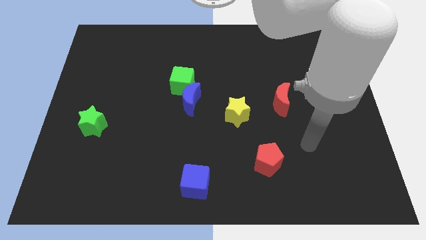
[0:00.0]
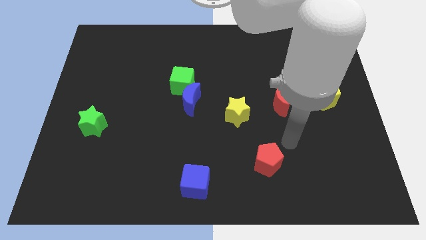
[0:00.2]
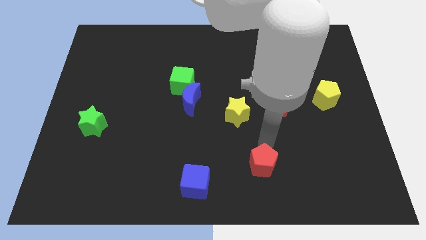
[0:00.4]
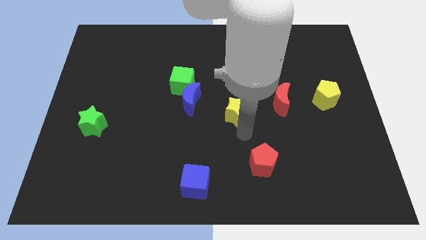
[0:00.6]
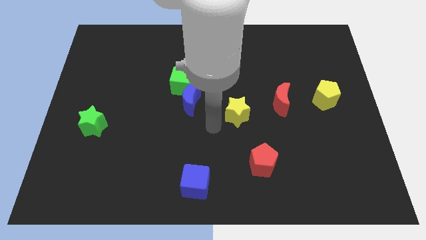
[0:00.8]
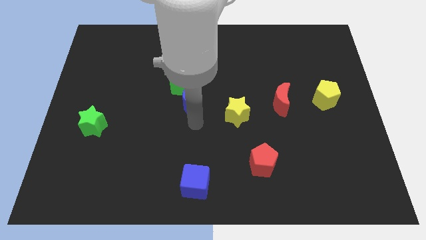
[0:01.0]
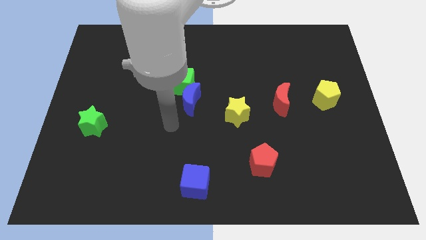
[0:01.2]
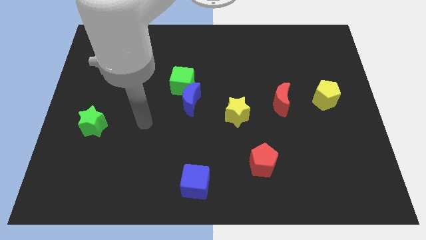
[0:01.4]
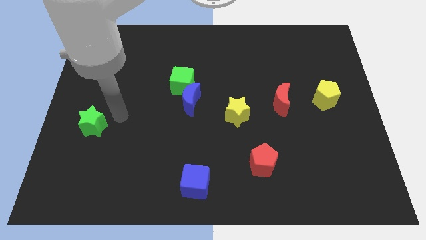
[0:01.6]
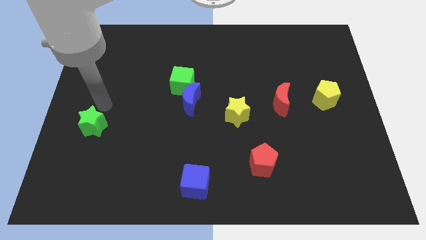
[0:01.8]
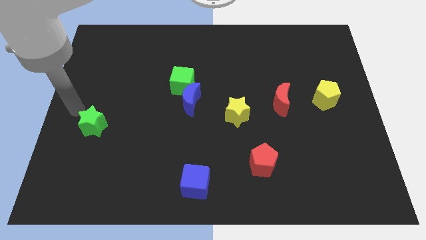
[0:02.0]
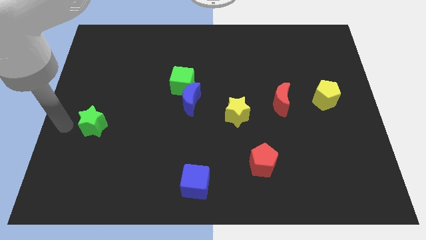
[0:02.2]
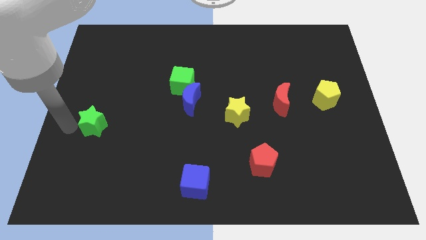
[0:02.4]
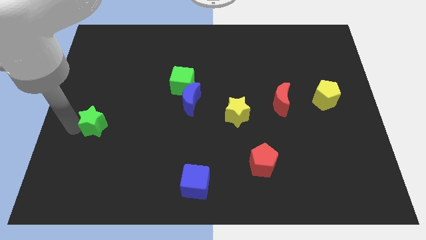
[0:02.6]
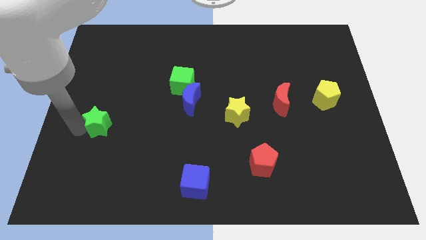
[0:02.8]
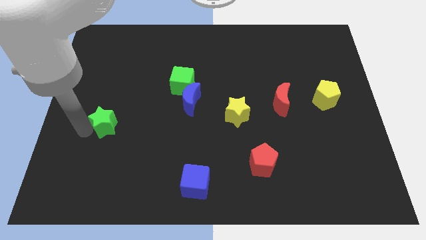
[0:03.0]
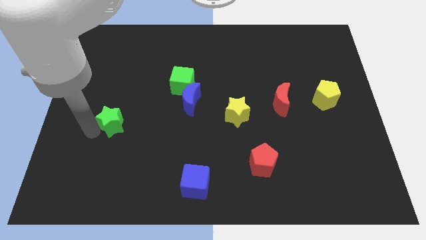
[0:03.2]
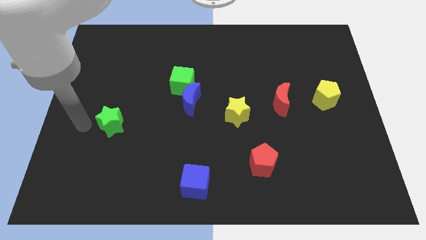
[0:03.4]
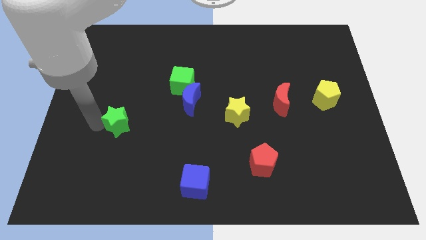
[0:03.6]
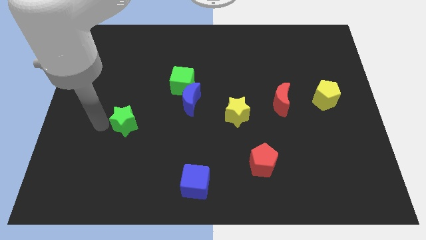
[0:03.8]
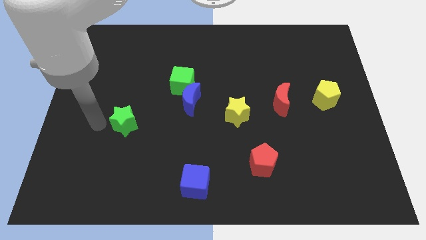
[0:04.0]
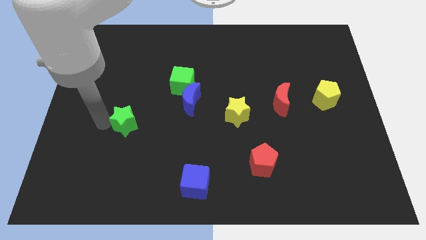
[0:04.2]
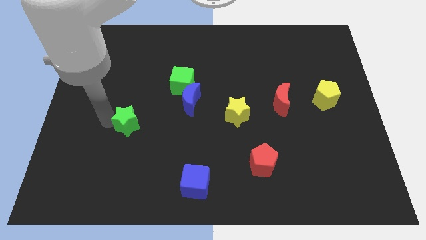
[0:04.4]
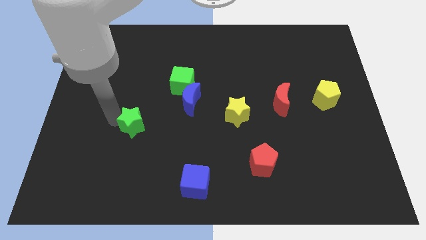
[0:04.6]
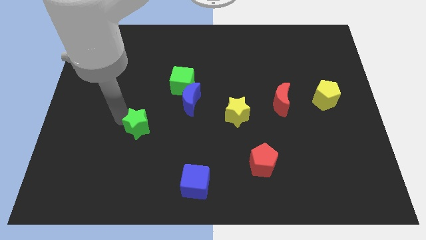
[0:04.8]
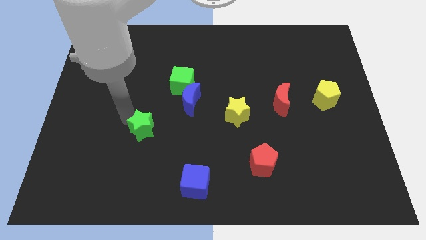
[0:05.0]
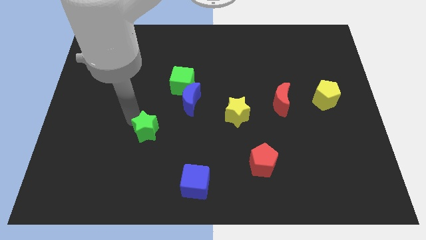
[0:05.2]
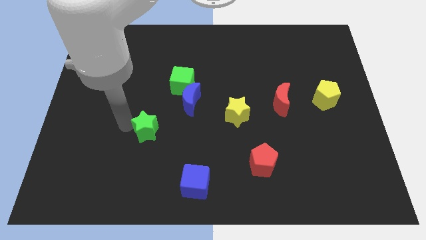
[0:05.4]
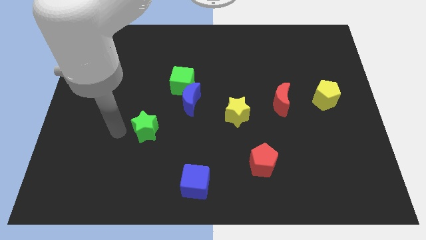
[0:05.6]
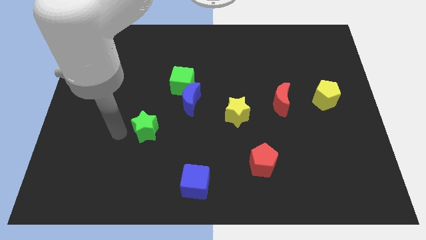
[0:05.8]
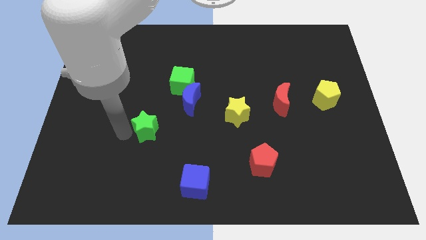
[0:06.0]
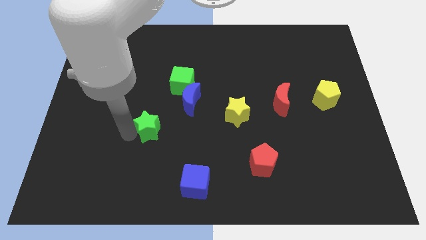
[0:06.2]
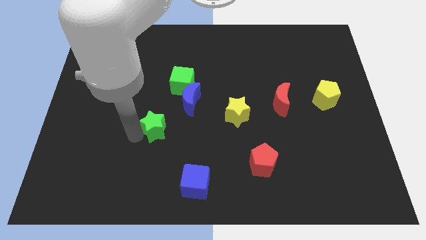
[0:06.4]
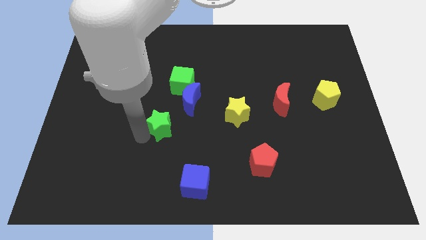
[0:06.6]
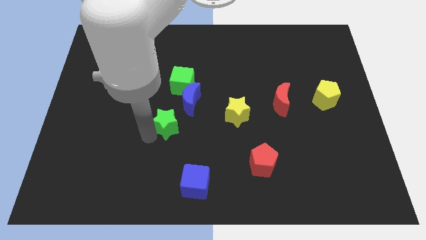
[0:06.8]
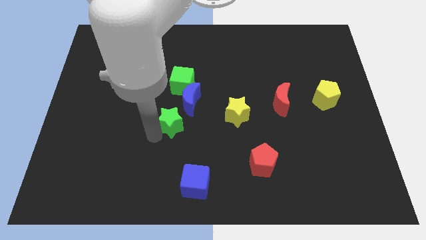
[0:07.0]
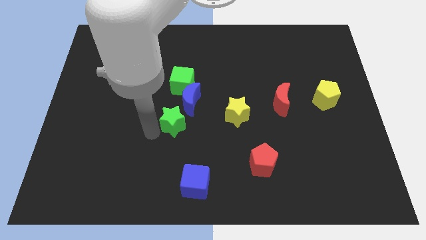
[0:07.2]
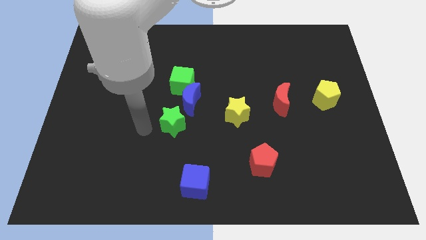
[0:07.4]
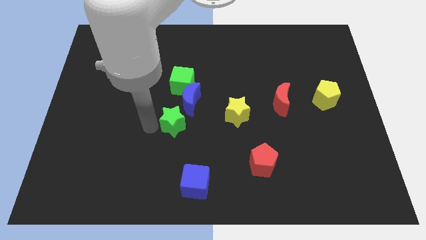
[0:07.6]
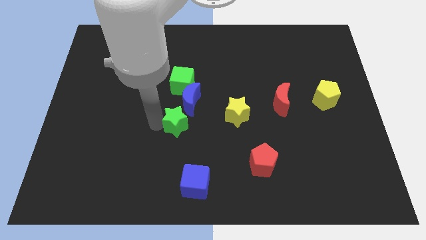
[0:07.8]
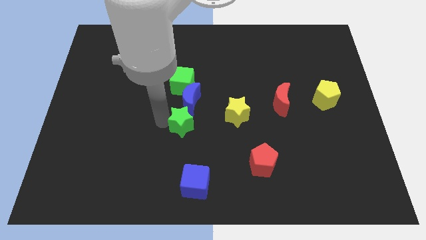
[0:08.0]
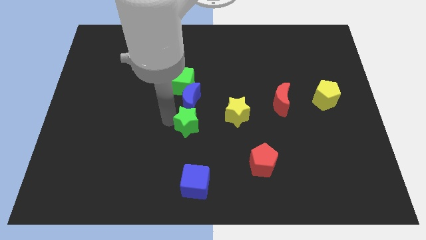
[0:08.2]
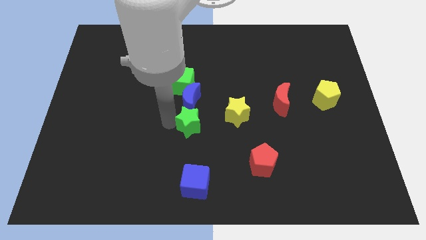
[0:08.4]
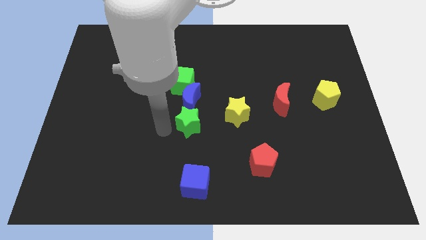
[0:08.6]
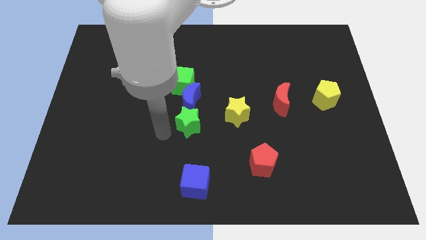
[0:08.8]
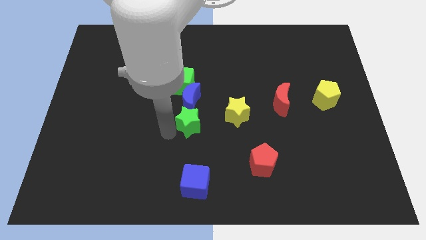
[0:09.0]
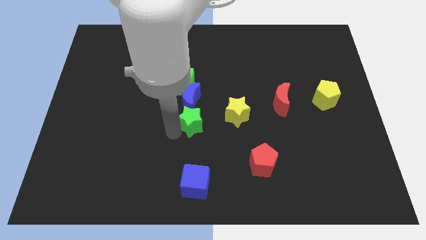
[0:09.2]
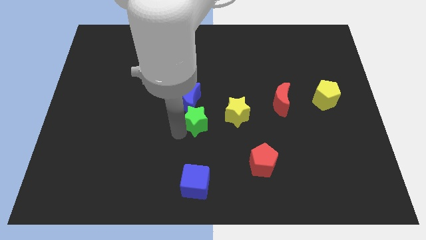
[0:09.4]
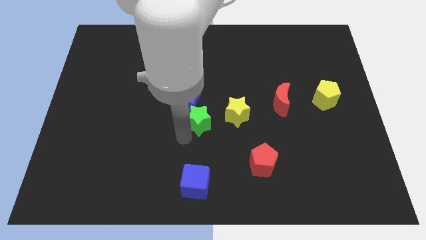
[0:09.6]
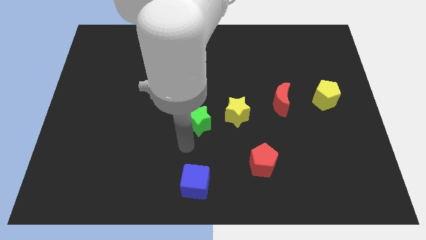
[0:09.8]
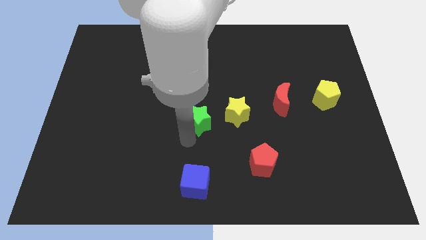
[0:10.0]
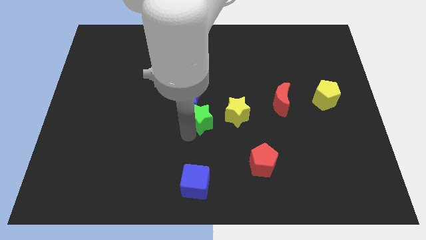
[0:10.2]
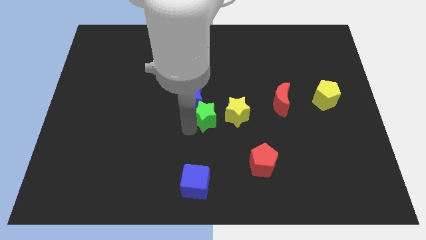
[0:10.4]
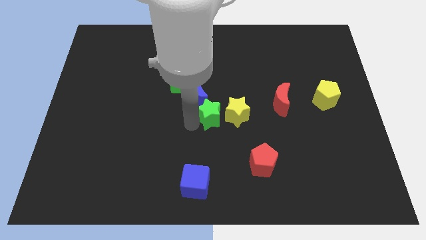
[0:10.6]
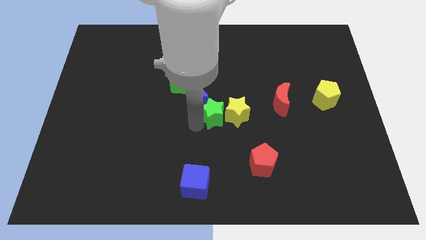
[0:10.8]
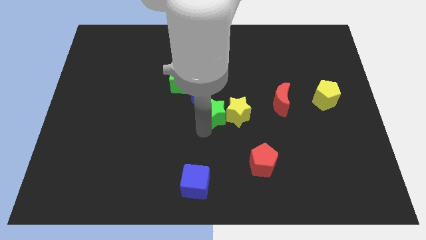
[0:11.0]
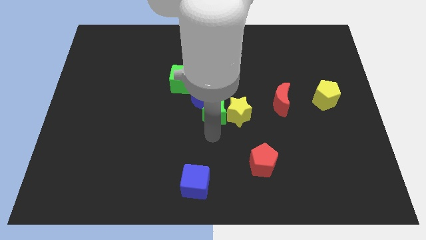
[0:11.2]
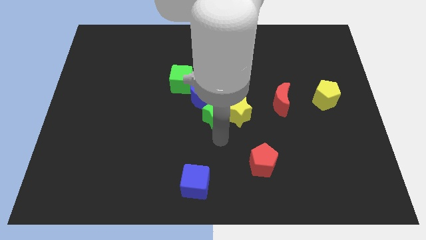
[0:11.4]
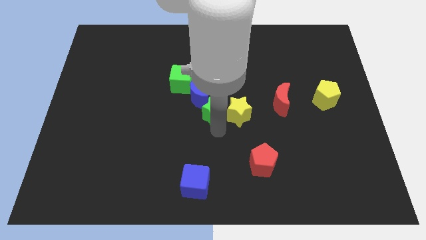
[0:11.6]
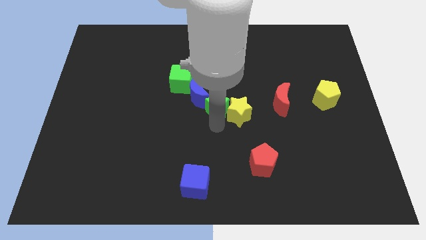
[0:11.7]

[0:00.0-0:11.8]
slide the green star left of the red moon

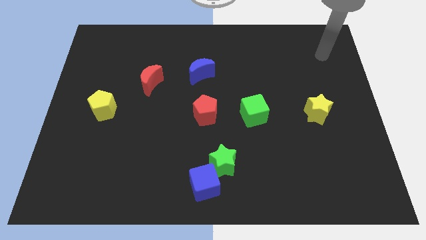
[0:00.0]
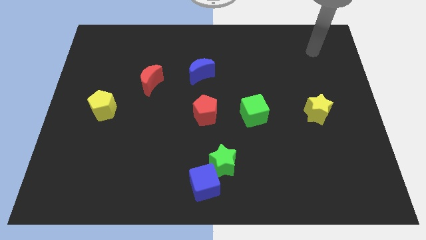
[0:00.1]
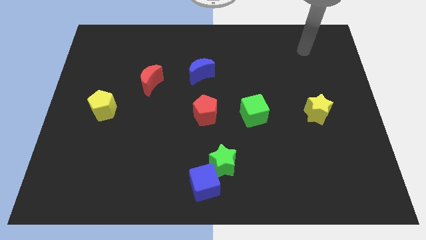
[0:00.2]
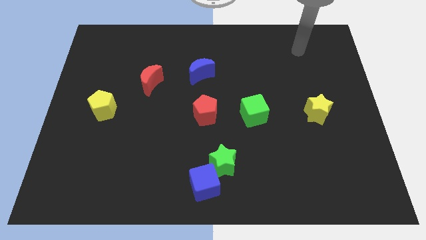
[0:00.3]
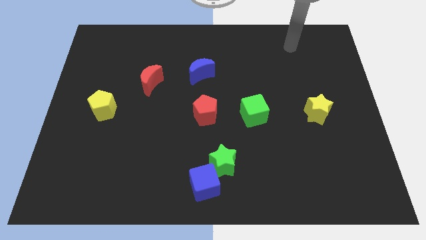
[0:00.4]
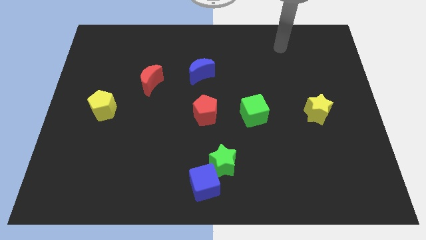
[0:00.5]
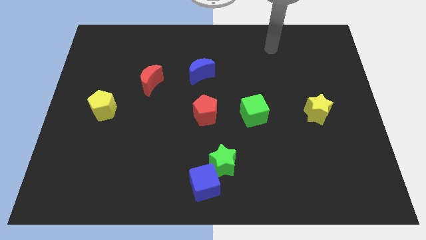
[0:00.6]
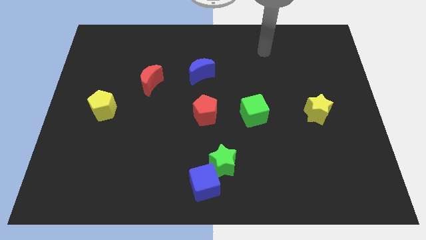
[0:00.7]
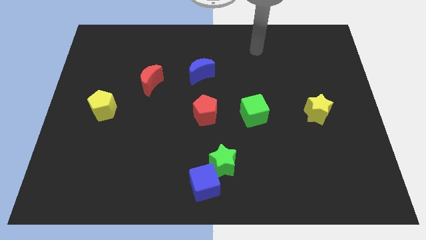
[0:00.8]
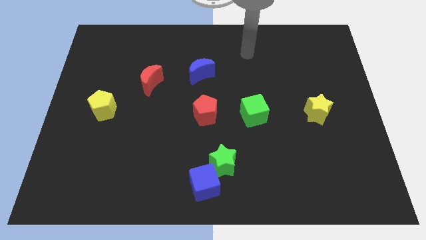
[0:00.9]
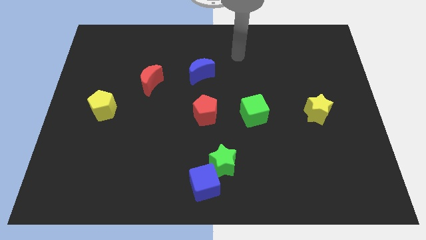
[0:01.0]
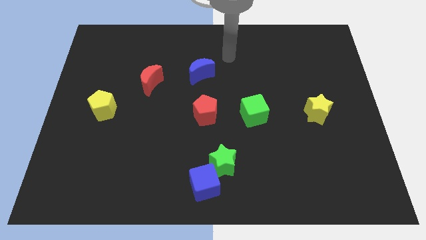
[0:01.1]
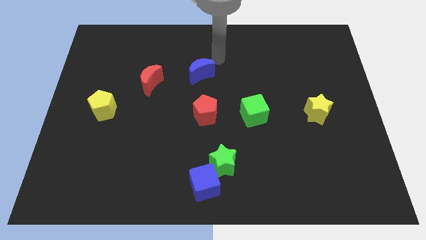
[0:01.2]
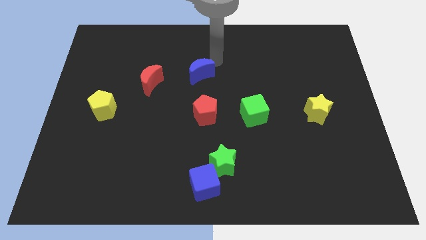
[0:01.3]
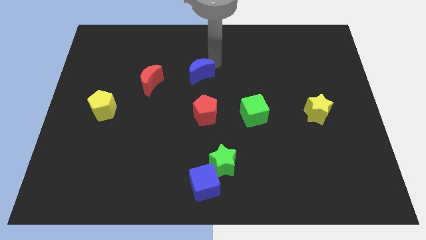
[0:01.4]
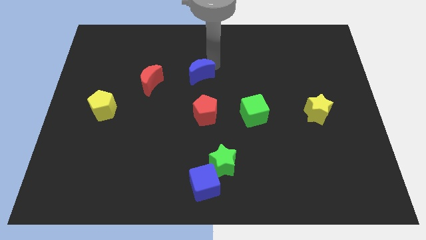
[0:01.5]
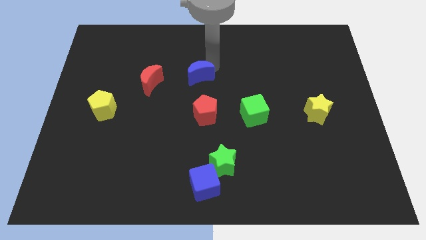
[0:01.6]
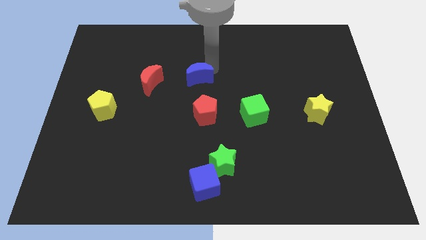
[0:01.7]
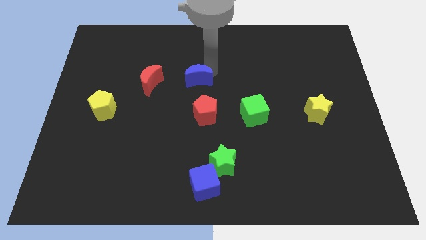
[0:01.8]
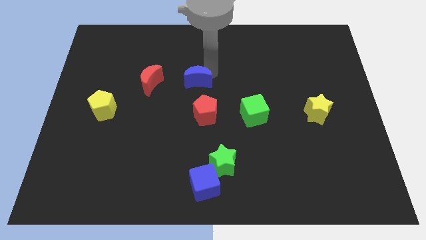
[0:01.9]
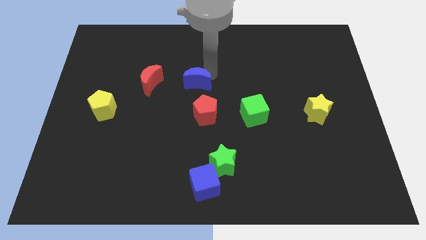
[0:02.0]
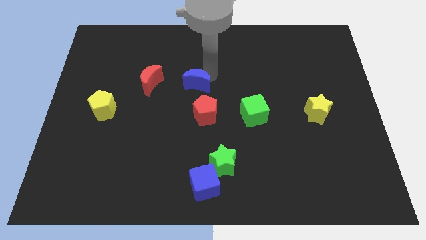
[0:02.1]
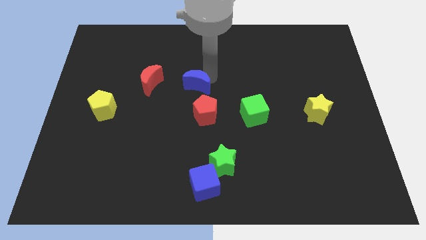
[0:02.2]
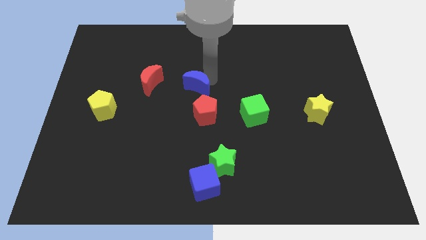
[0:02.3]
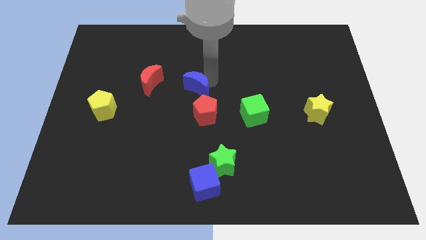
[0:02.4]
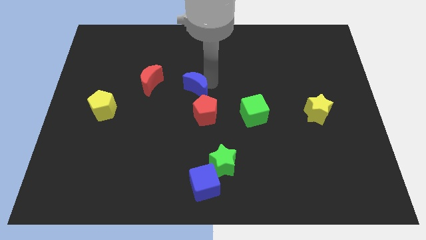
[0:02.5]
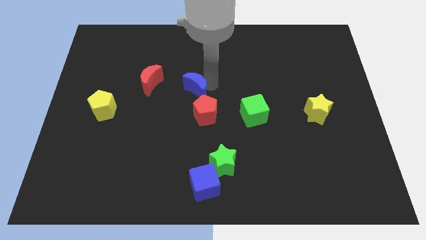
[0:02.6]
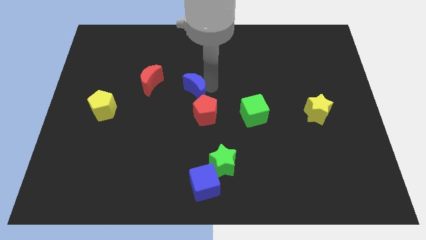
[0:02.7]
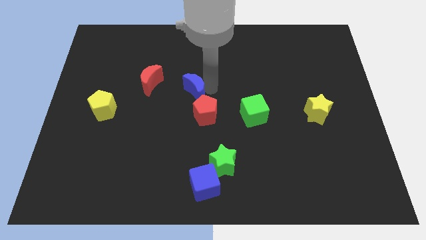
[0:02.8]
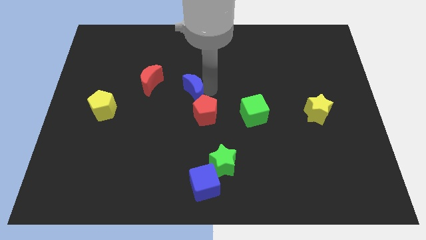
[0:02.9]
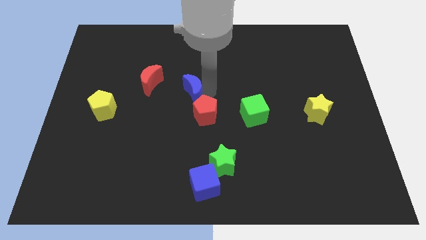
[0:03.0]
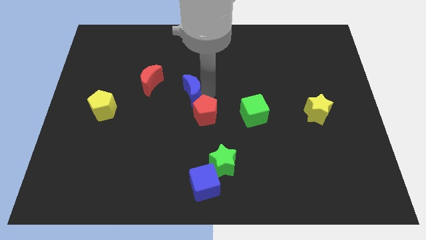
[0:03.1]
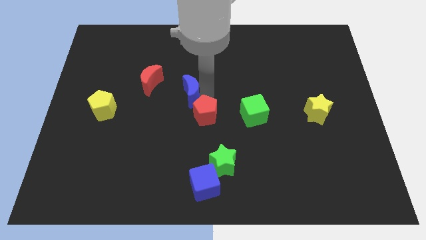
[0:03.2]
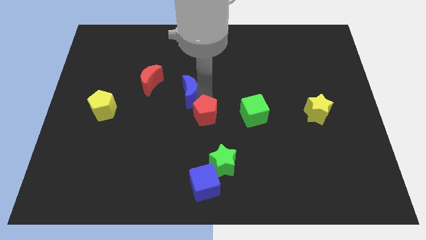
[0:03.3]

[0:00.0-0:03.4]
push the blue moon to the bottom right side of the red moon
